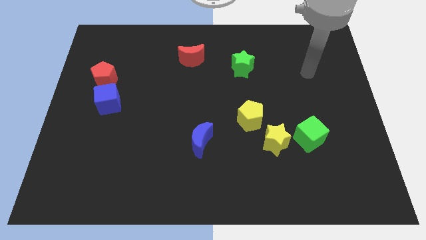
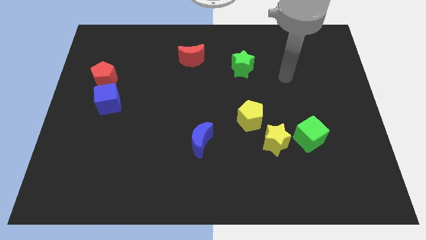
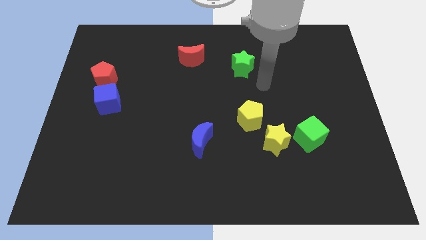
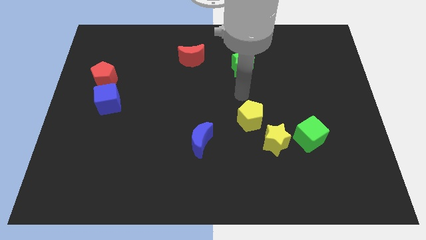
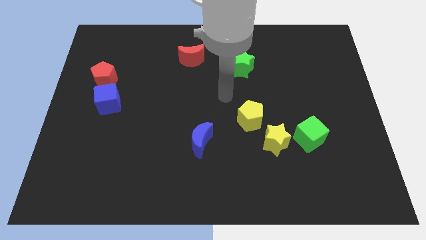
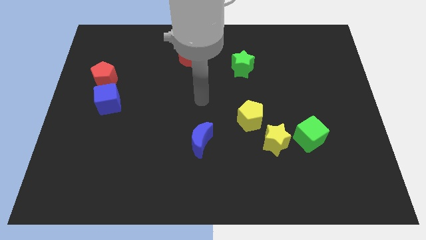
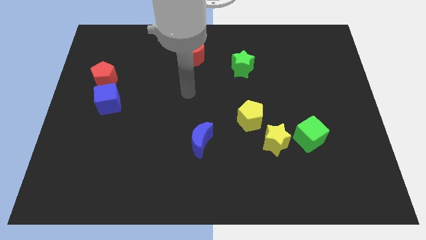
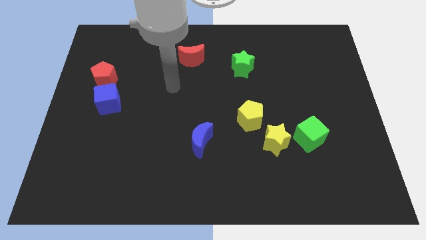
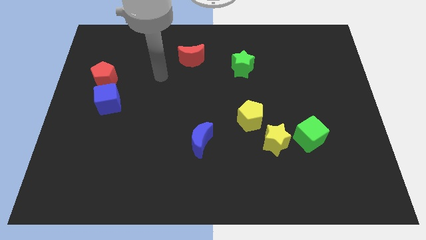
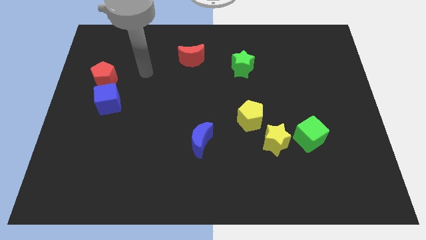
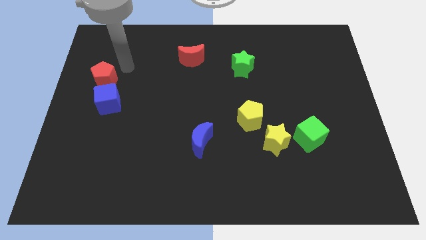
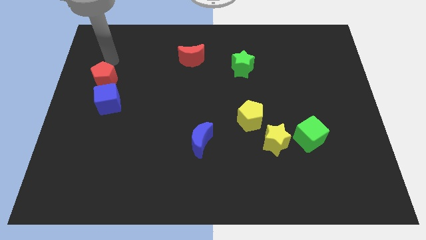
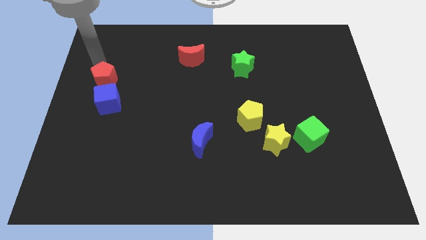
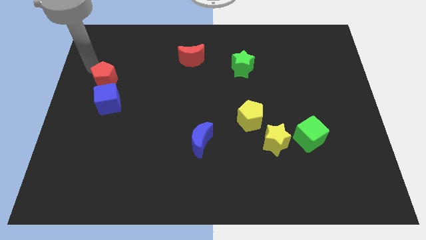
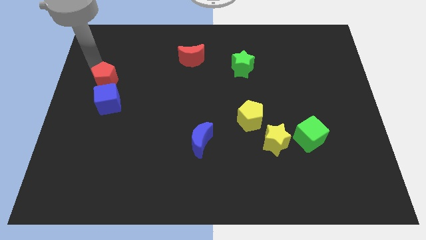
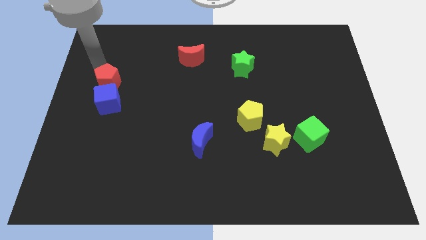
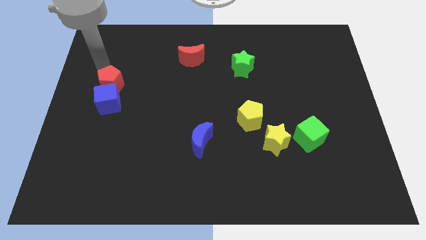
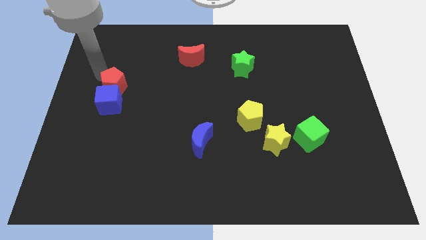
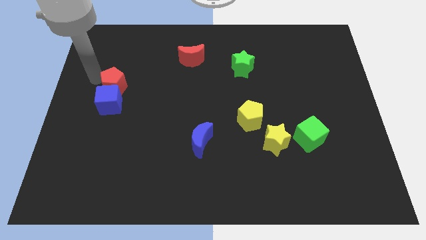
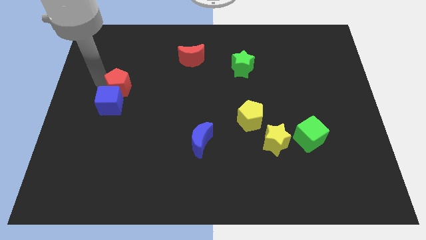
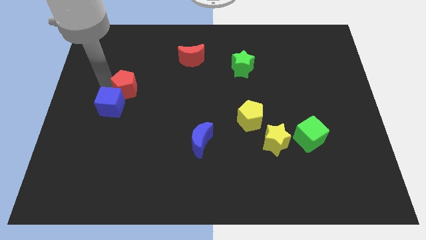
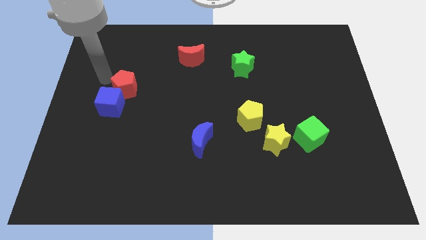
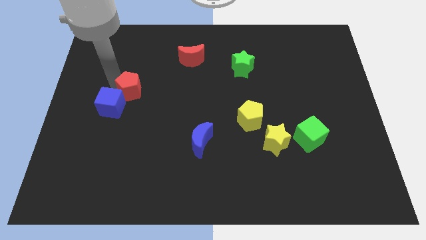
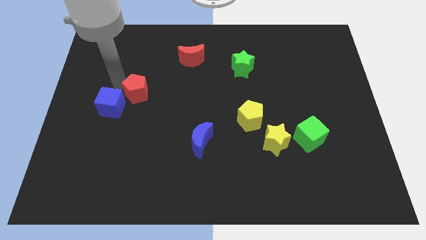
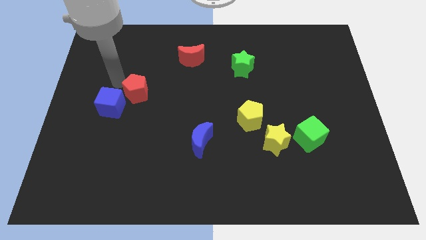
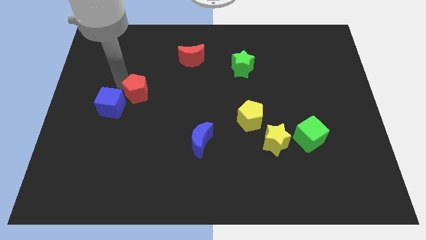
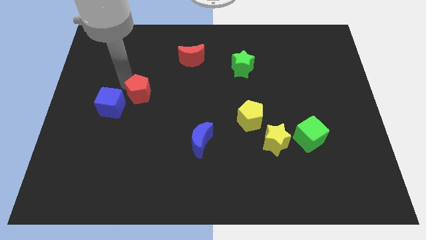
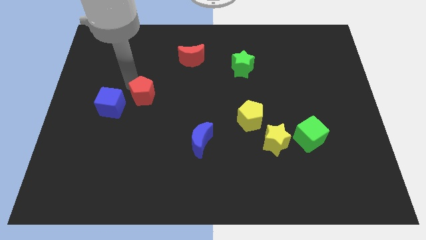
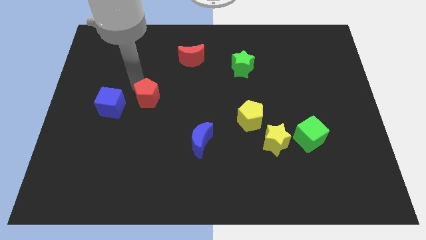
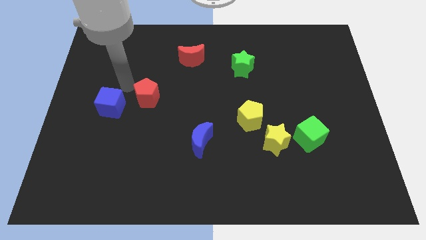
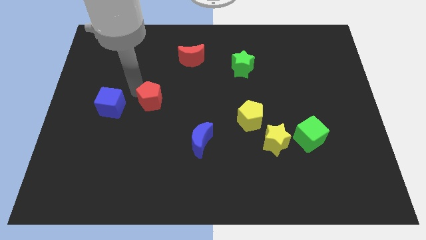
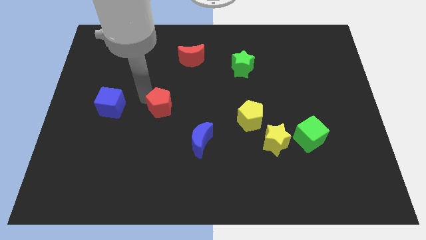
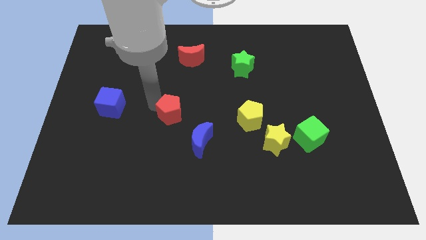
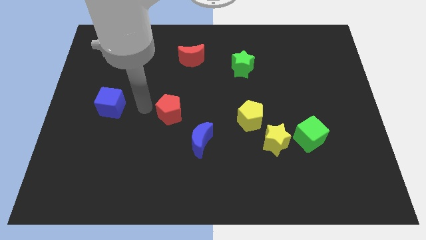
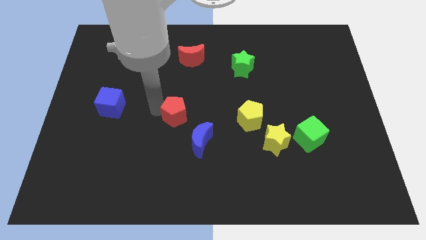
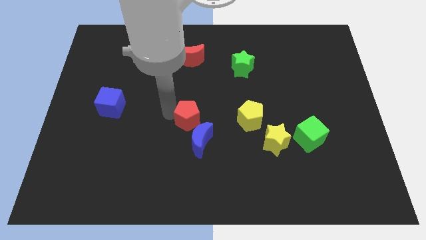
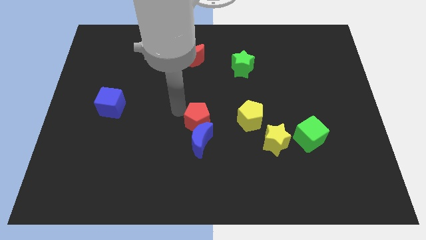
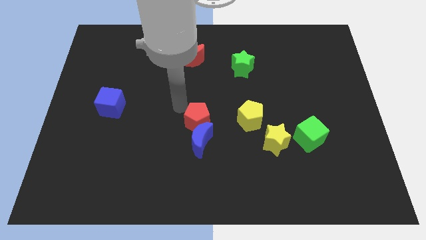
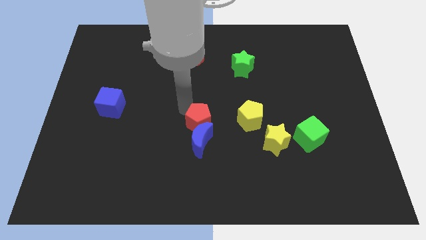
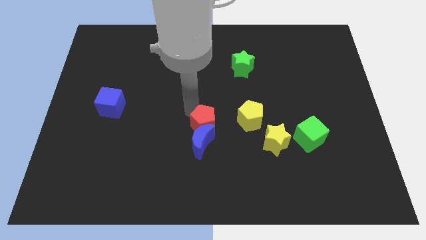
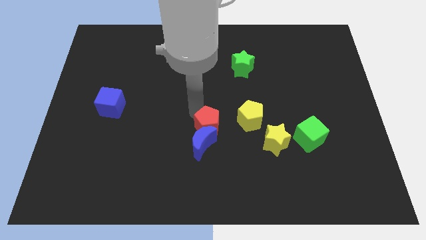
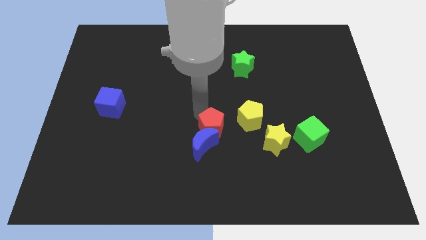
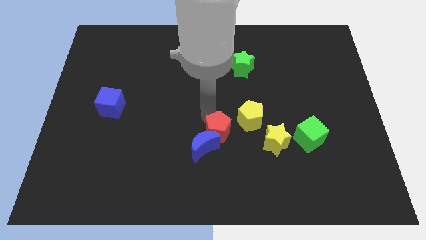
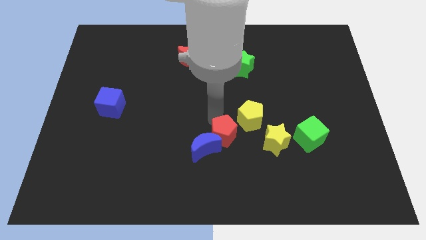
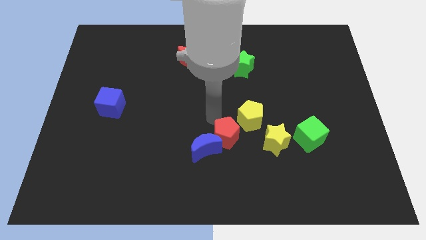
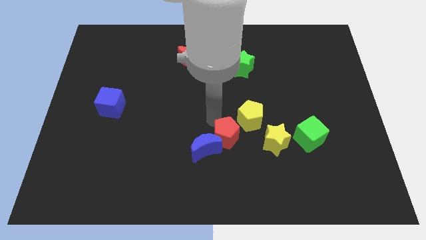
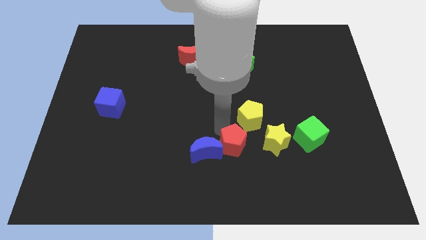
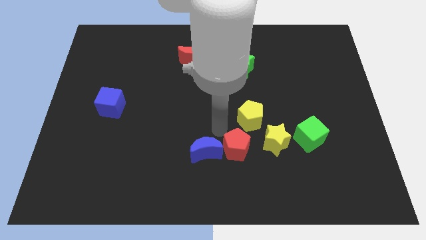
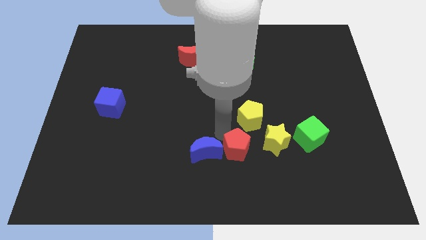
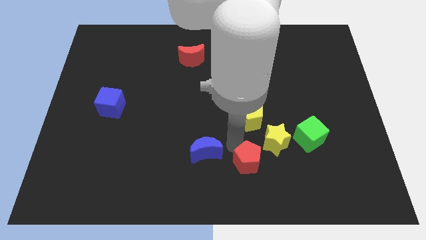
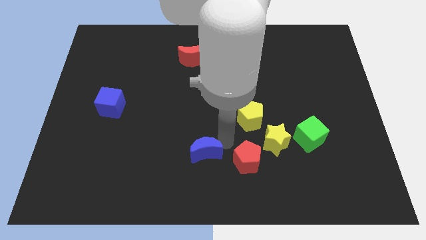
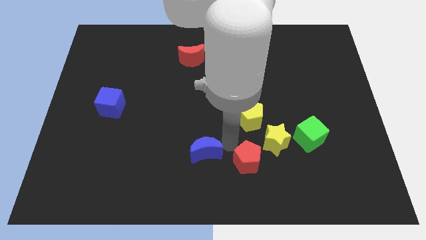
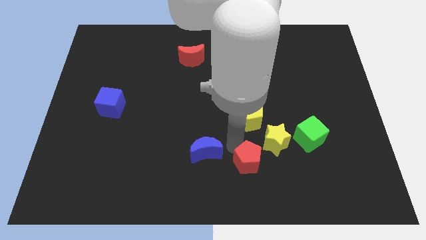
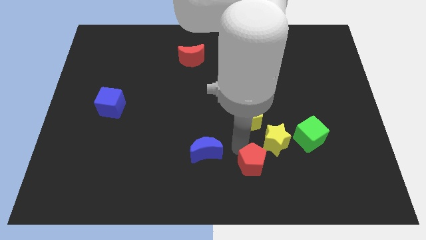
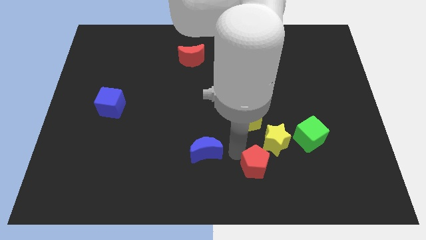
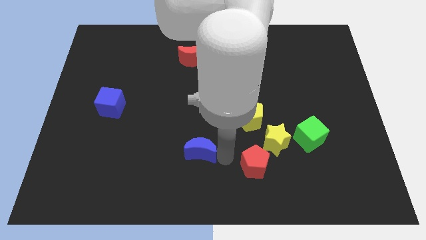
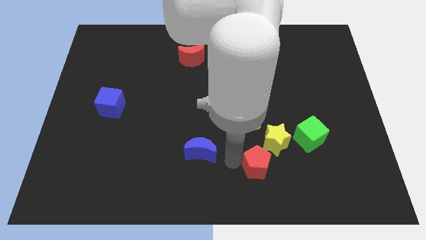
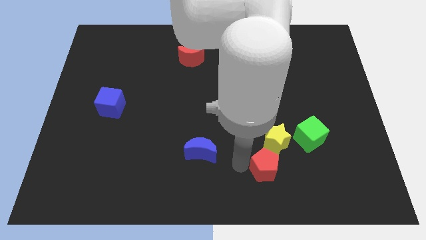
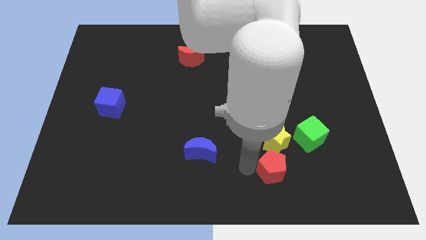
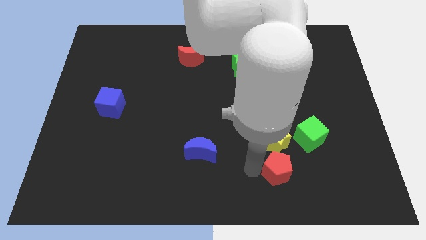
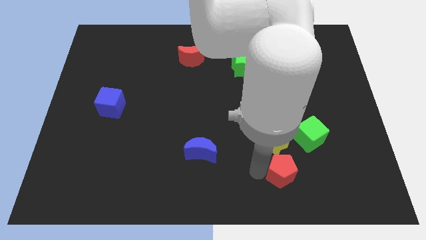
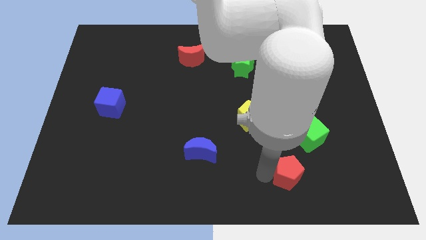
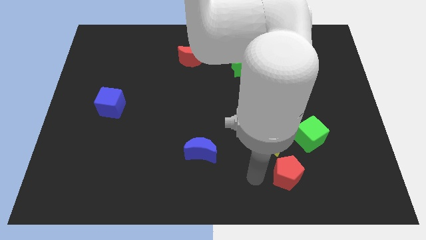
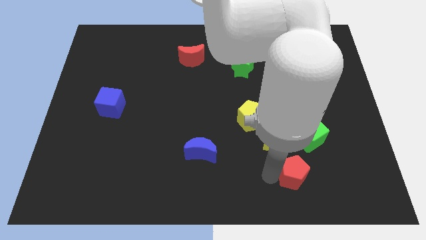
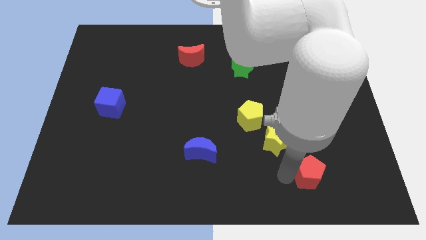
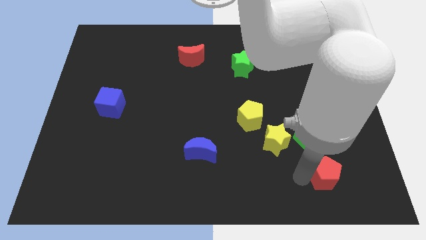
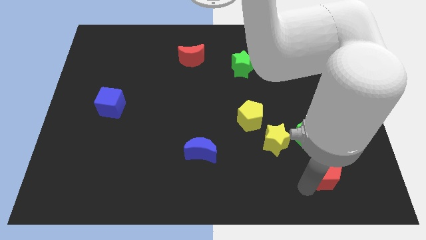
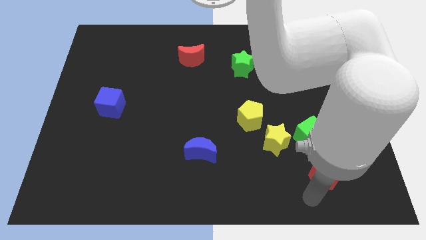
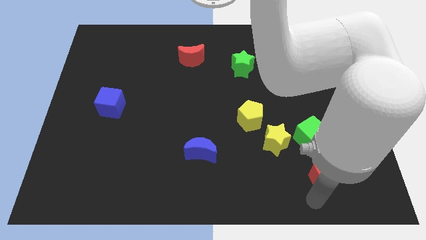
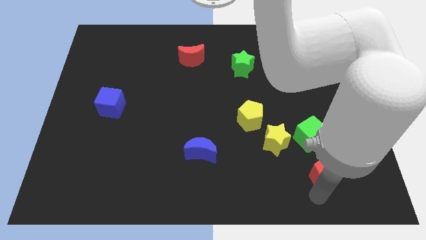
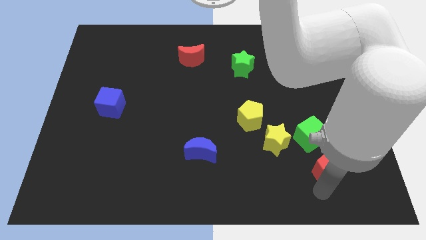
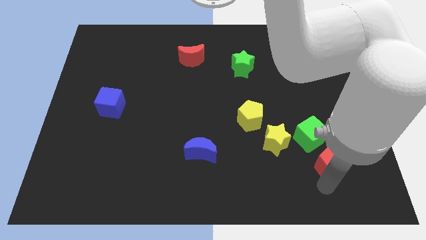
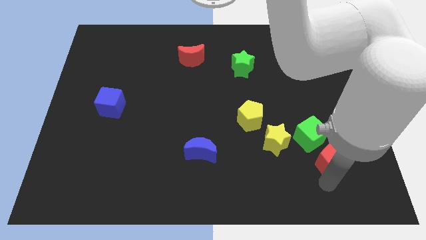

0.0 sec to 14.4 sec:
move the red pentagon to the right of the yellow star
